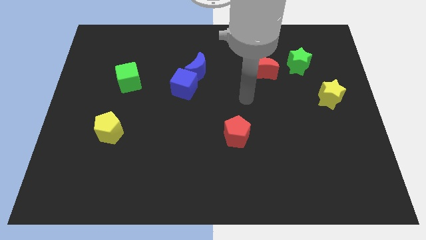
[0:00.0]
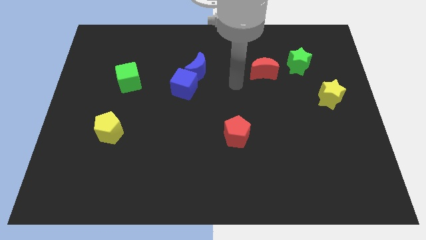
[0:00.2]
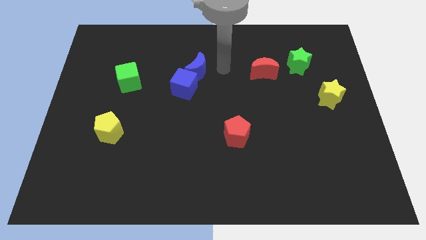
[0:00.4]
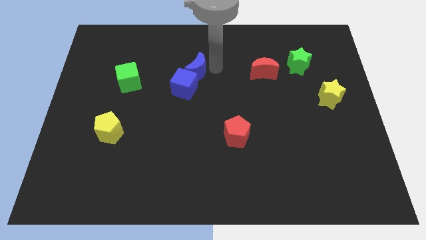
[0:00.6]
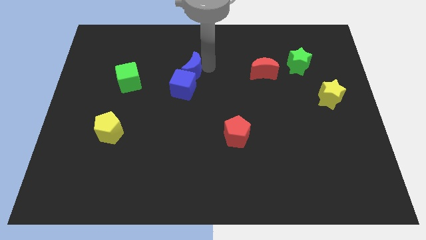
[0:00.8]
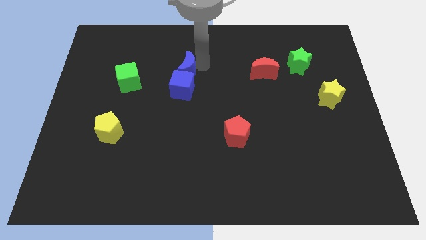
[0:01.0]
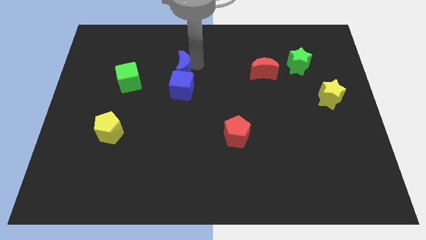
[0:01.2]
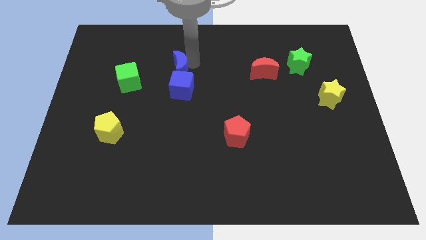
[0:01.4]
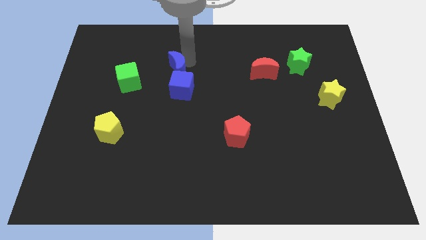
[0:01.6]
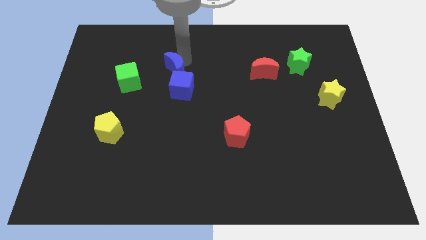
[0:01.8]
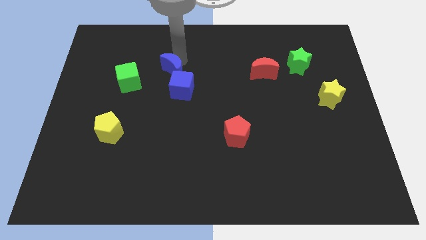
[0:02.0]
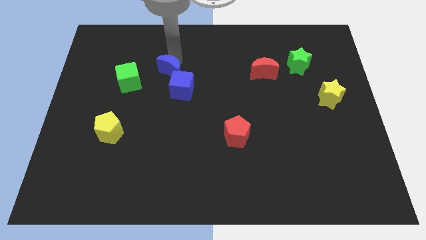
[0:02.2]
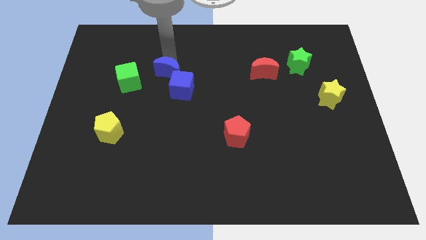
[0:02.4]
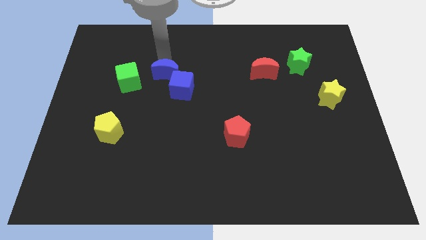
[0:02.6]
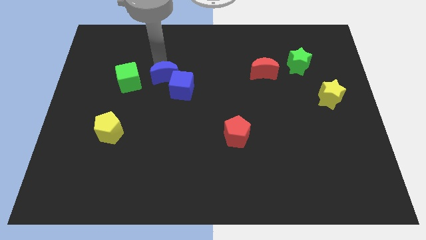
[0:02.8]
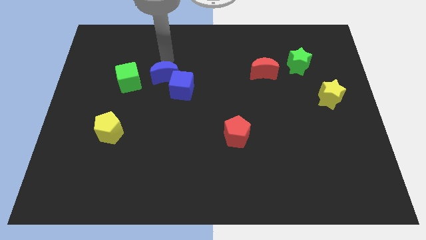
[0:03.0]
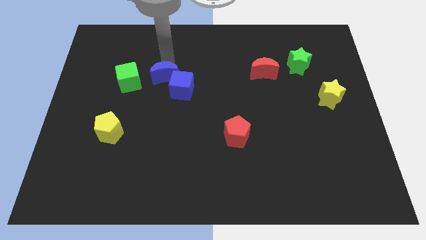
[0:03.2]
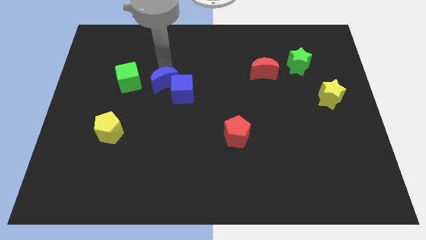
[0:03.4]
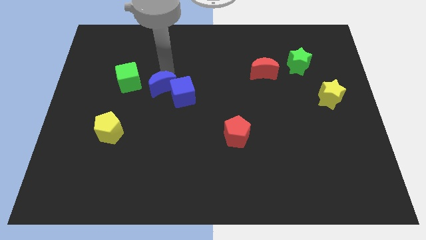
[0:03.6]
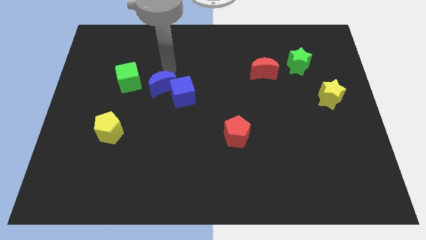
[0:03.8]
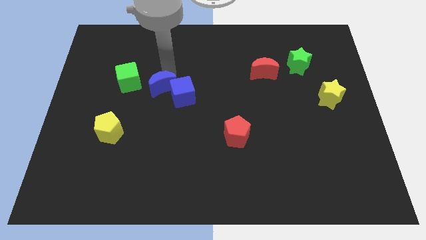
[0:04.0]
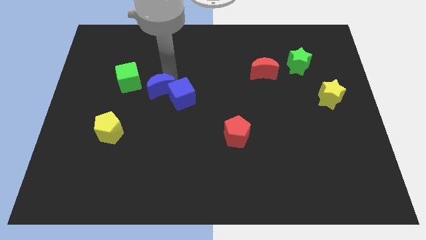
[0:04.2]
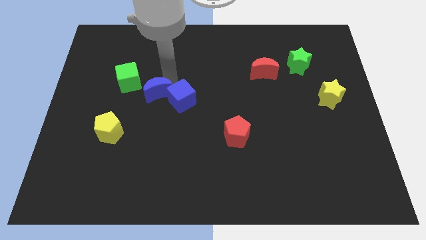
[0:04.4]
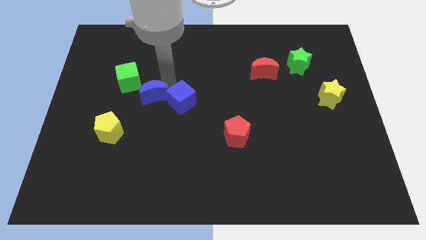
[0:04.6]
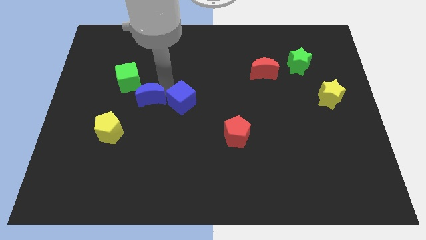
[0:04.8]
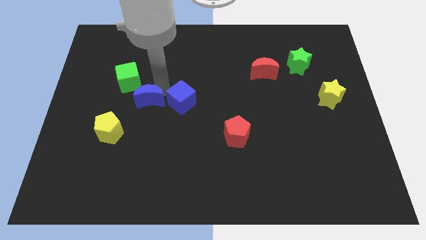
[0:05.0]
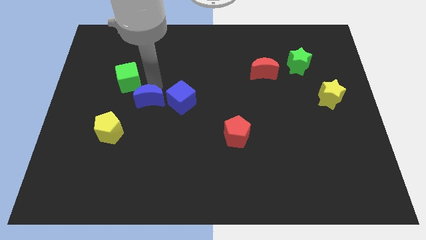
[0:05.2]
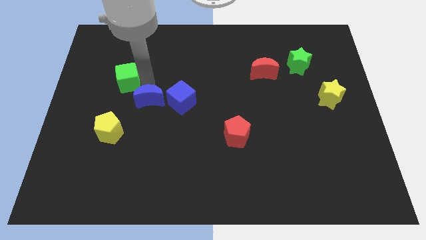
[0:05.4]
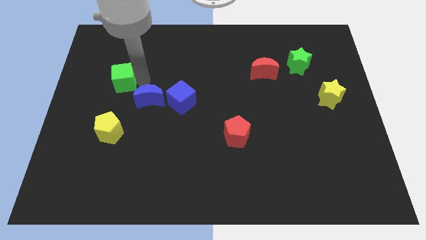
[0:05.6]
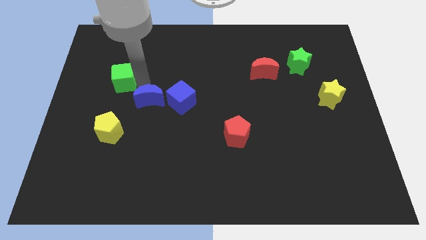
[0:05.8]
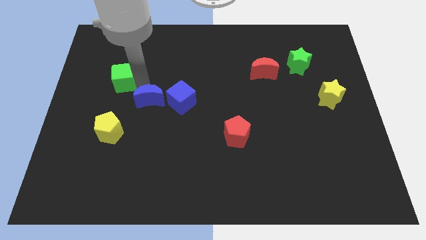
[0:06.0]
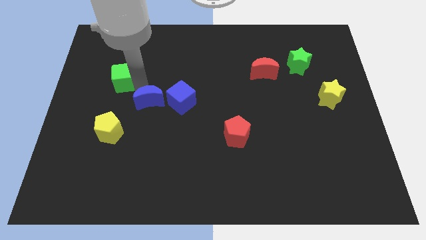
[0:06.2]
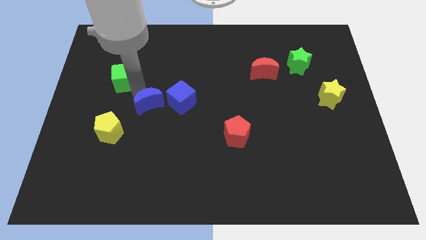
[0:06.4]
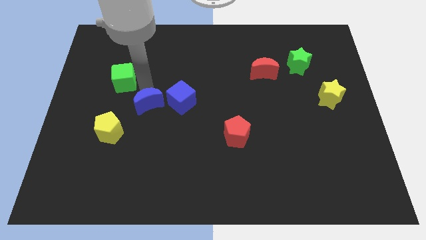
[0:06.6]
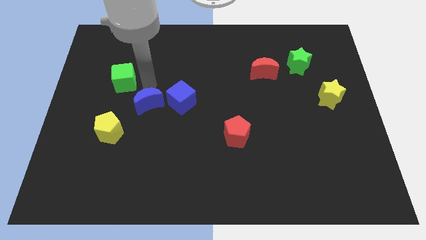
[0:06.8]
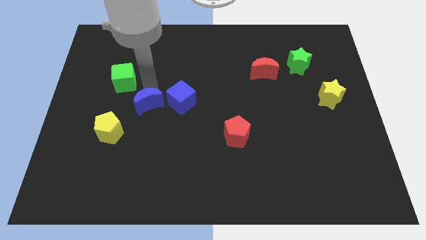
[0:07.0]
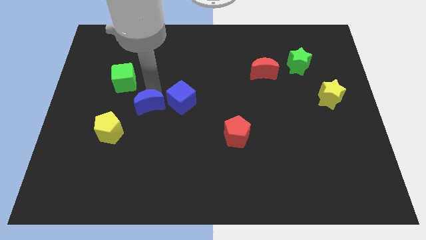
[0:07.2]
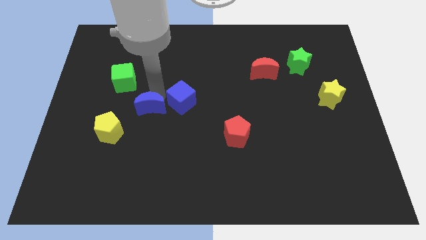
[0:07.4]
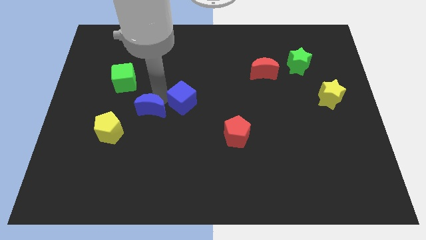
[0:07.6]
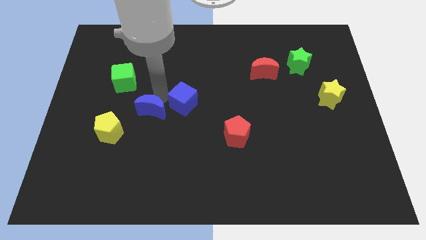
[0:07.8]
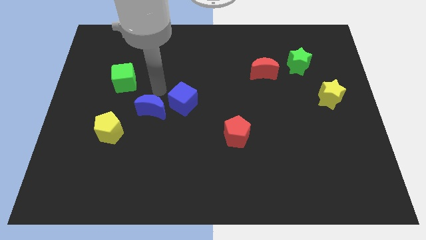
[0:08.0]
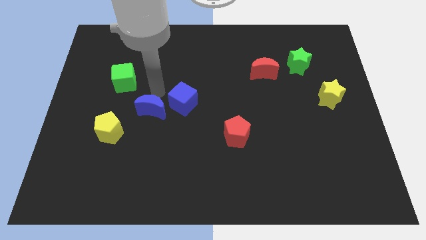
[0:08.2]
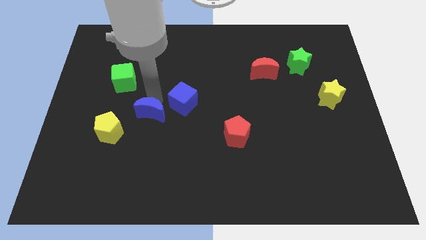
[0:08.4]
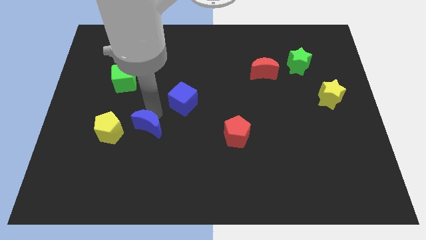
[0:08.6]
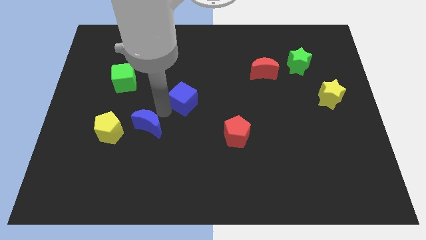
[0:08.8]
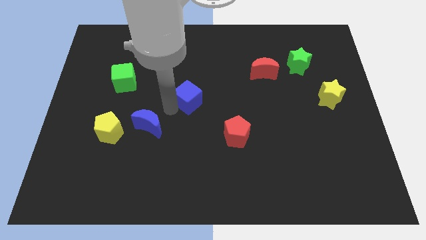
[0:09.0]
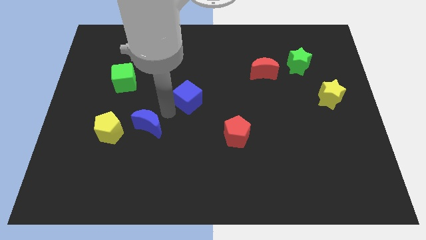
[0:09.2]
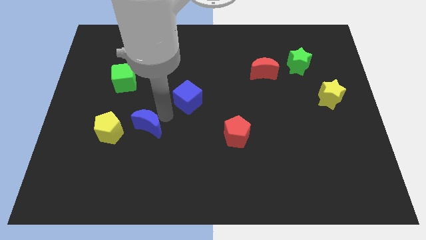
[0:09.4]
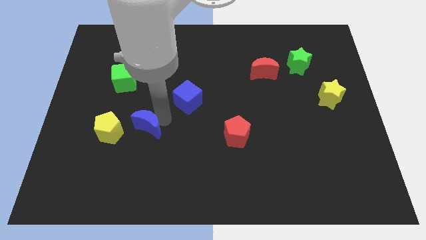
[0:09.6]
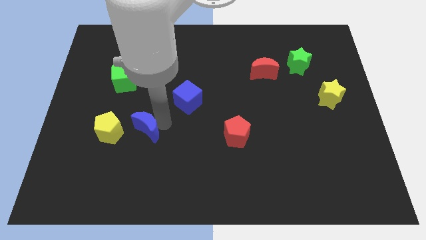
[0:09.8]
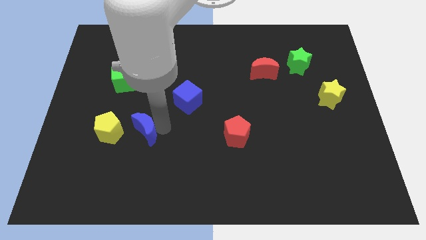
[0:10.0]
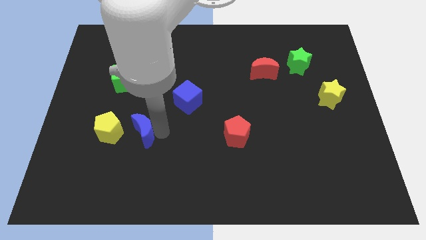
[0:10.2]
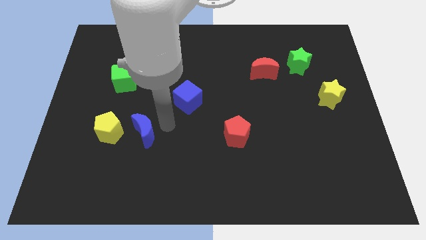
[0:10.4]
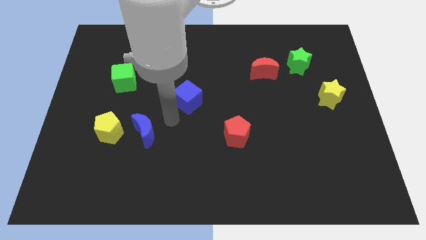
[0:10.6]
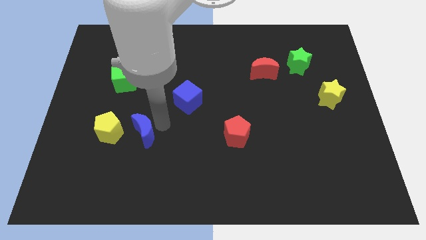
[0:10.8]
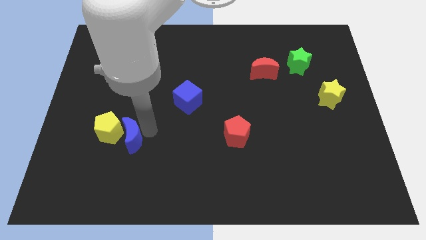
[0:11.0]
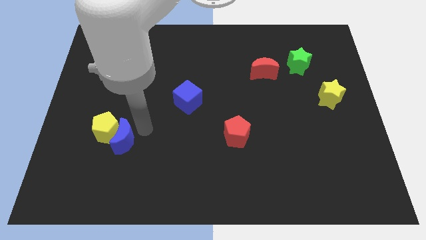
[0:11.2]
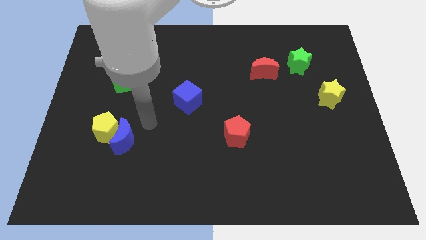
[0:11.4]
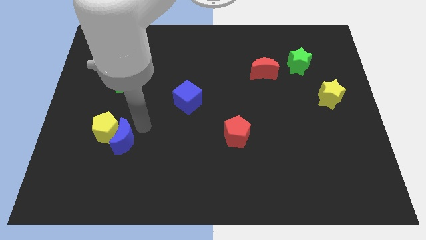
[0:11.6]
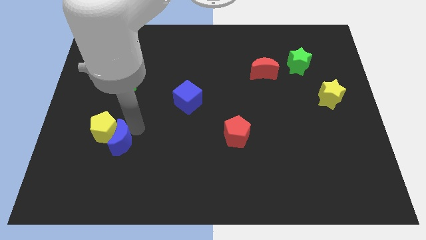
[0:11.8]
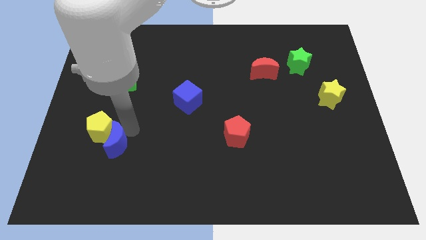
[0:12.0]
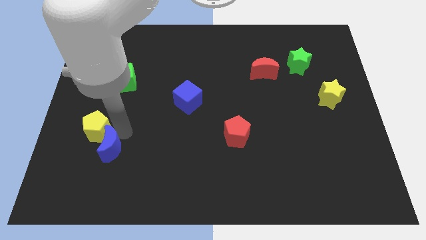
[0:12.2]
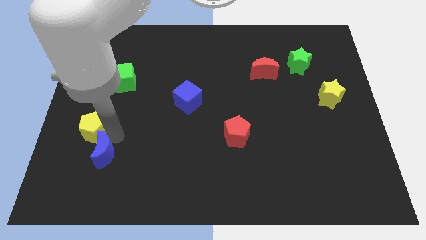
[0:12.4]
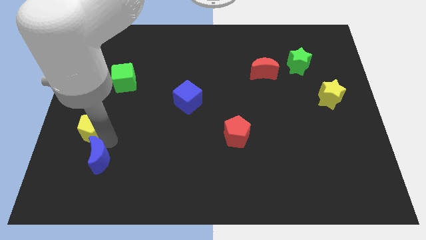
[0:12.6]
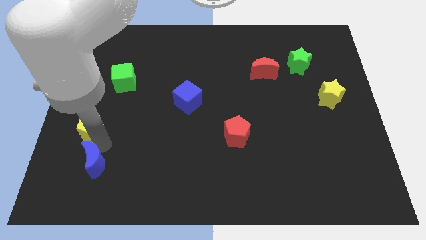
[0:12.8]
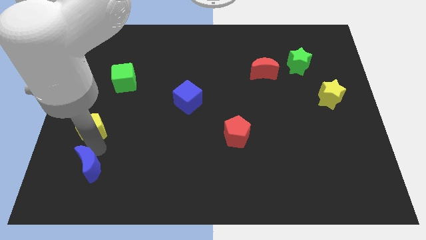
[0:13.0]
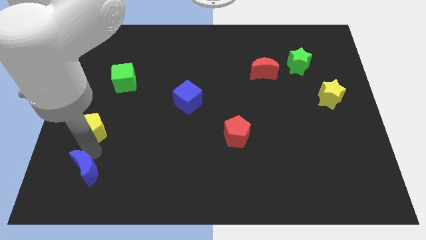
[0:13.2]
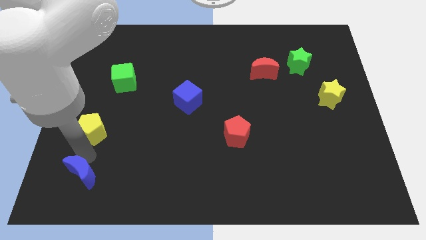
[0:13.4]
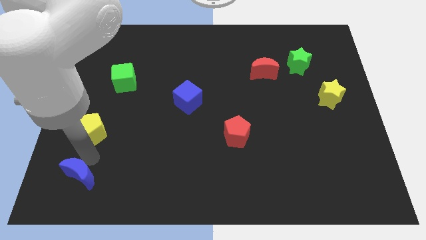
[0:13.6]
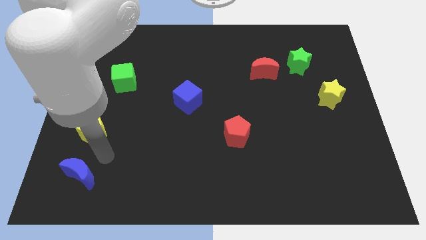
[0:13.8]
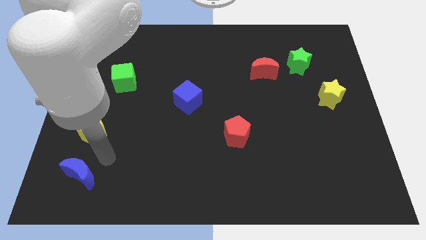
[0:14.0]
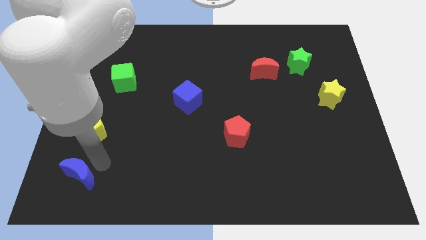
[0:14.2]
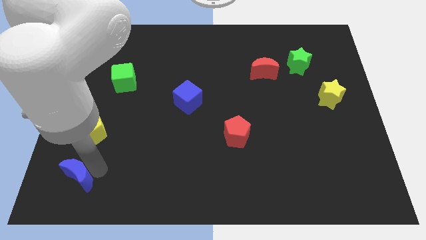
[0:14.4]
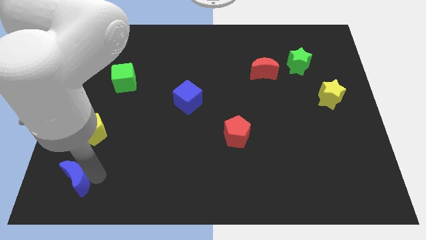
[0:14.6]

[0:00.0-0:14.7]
put the blue moon to the bottom left
